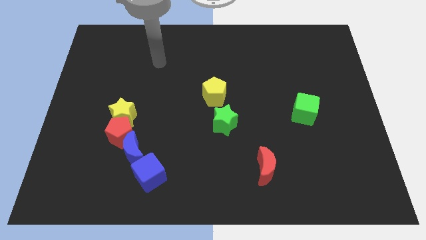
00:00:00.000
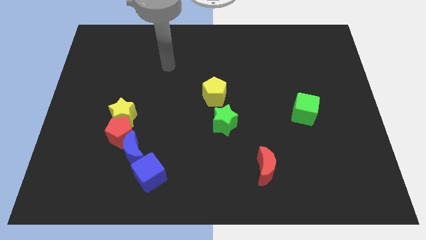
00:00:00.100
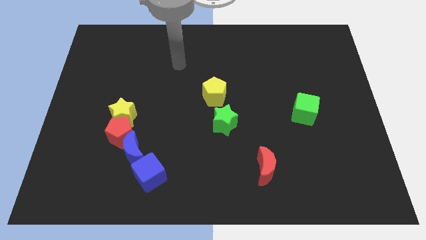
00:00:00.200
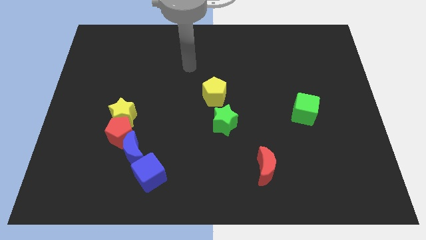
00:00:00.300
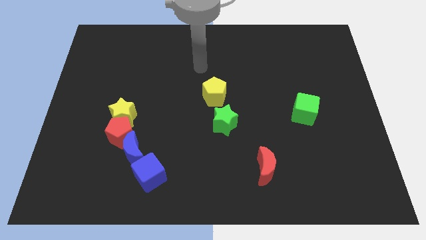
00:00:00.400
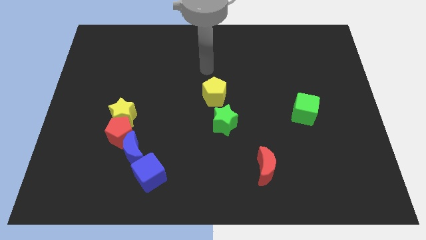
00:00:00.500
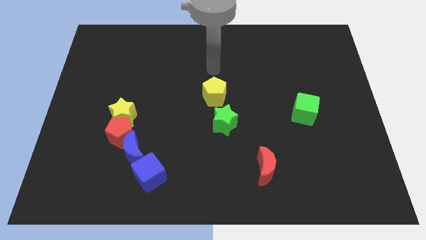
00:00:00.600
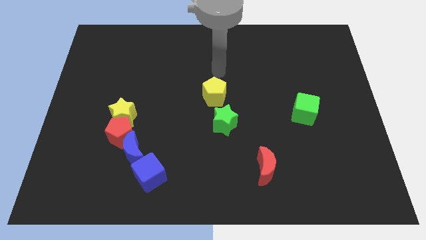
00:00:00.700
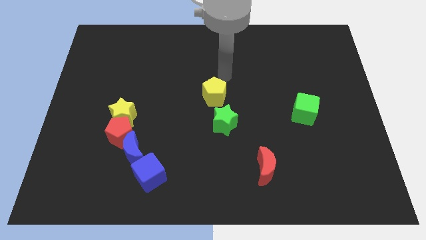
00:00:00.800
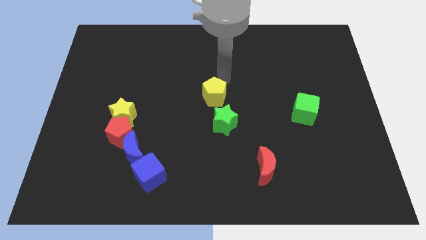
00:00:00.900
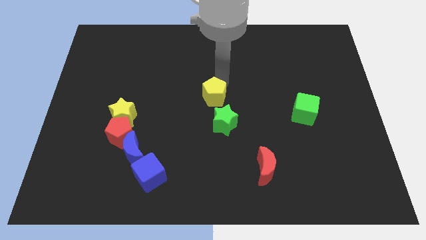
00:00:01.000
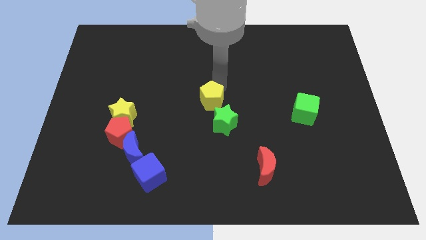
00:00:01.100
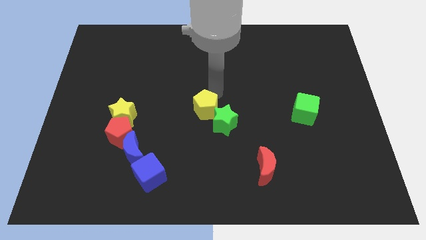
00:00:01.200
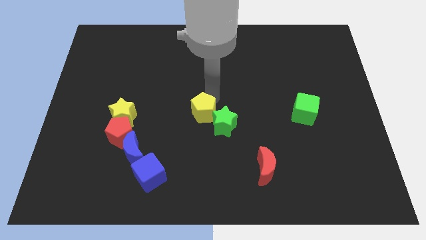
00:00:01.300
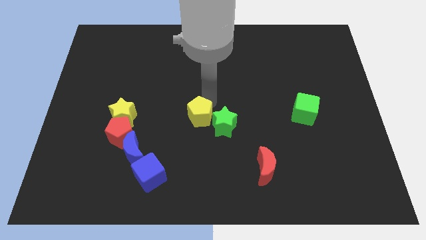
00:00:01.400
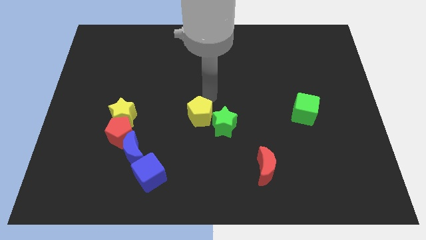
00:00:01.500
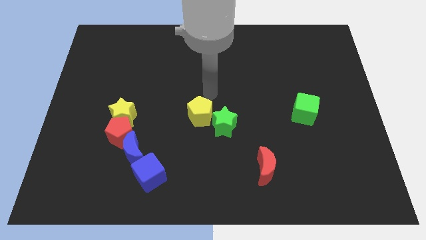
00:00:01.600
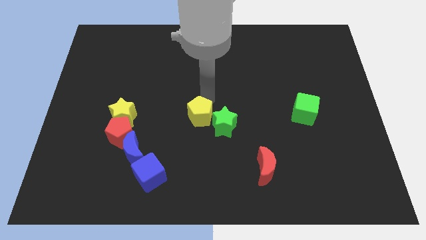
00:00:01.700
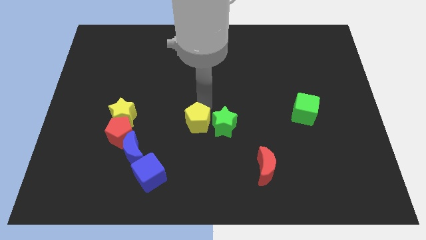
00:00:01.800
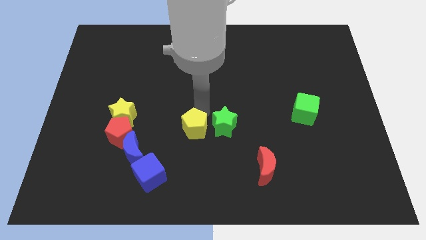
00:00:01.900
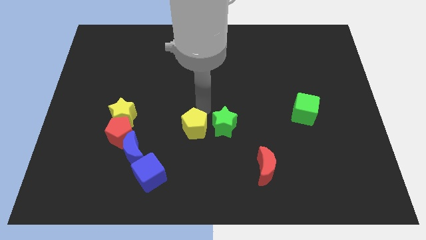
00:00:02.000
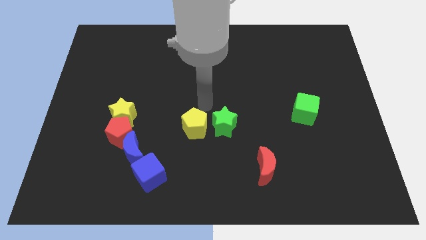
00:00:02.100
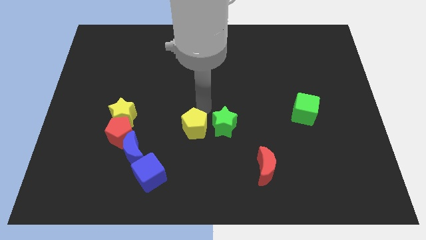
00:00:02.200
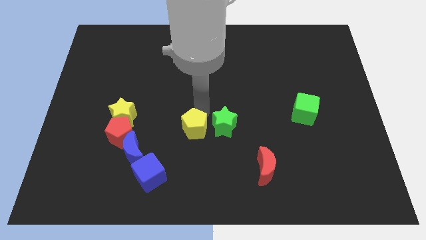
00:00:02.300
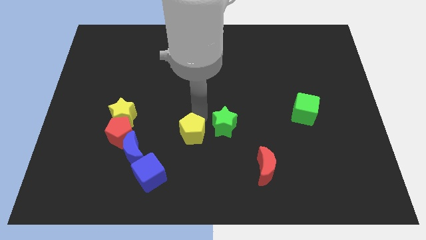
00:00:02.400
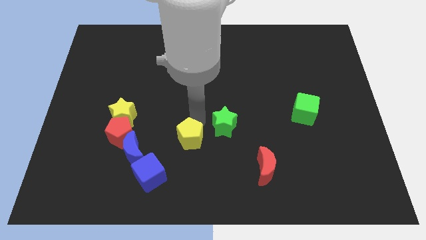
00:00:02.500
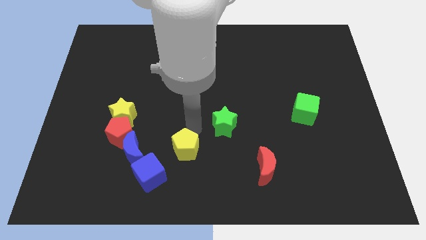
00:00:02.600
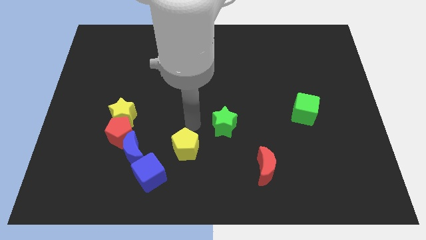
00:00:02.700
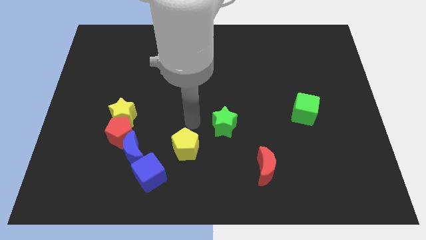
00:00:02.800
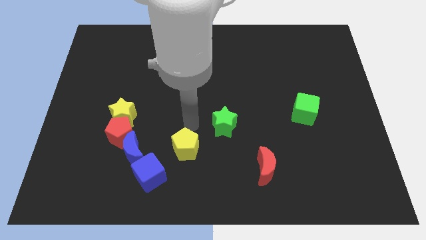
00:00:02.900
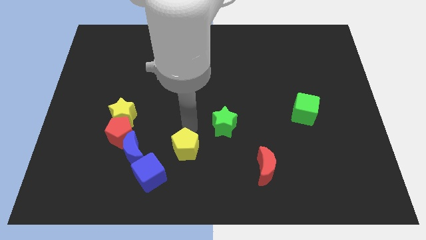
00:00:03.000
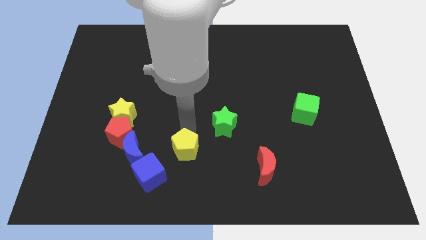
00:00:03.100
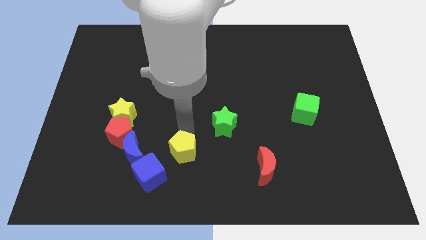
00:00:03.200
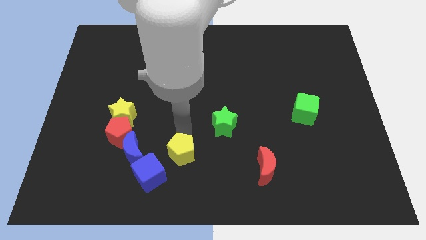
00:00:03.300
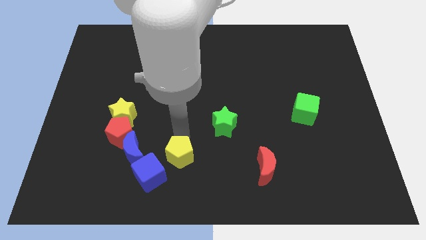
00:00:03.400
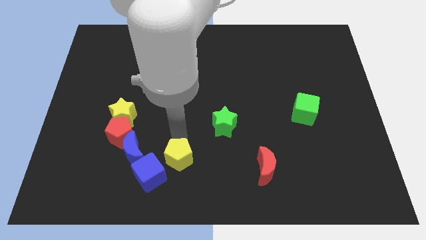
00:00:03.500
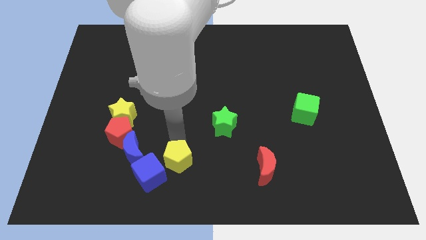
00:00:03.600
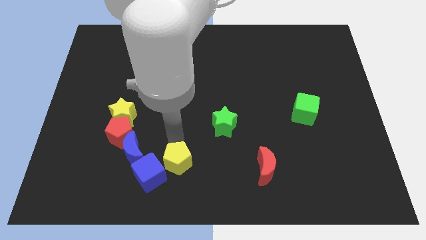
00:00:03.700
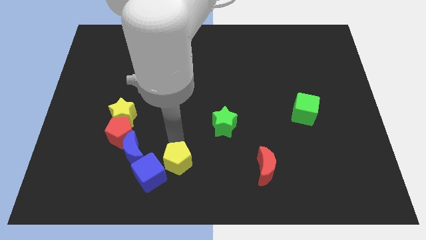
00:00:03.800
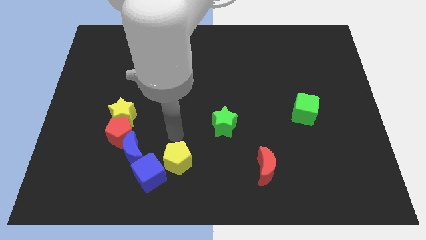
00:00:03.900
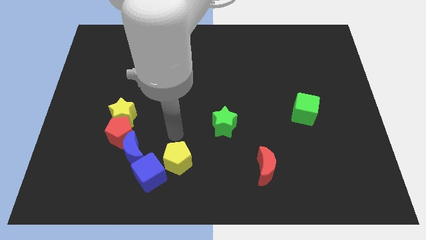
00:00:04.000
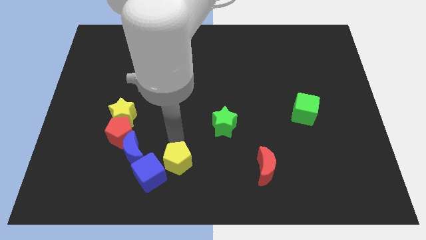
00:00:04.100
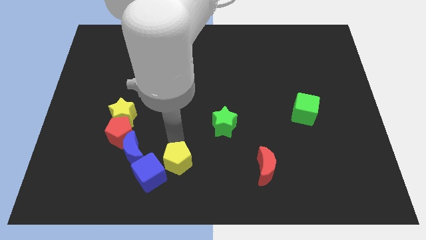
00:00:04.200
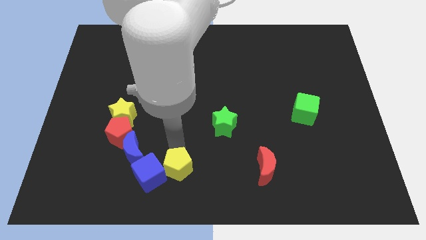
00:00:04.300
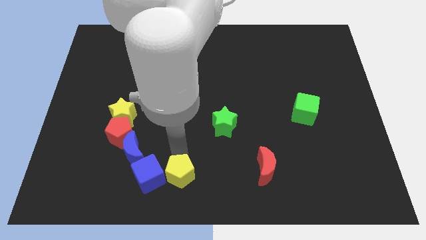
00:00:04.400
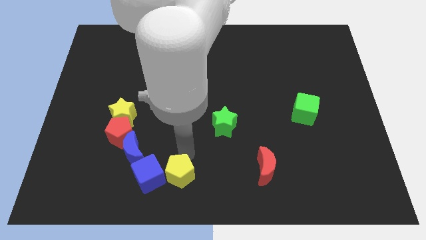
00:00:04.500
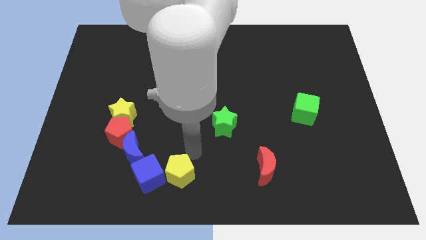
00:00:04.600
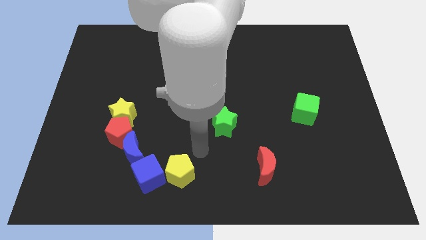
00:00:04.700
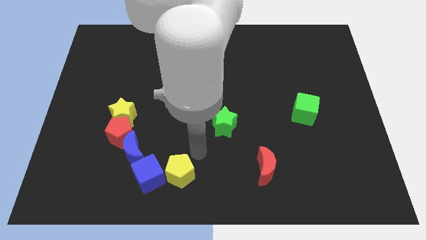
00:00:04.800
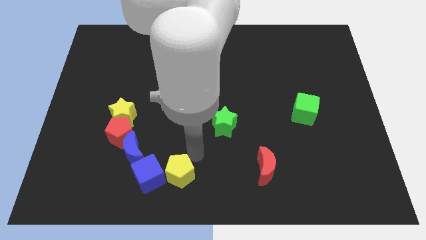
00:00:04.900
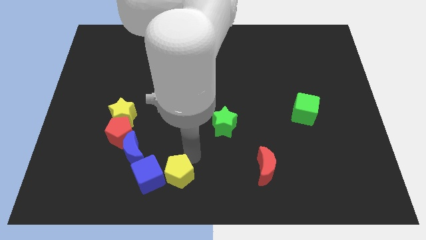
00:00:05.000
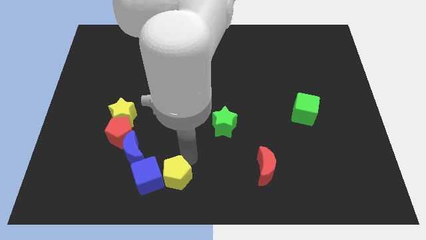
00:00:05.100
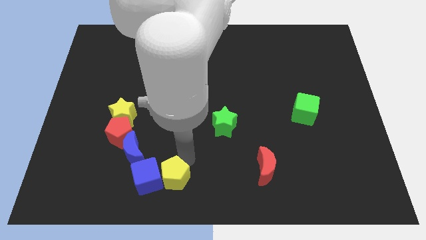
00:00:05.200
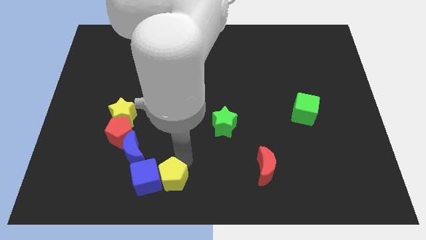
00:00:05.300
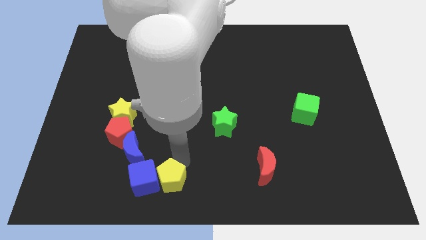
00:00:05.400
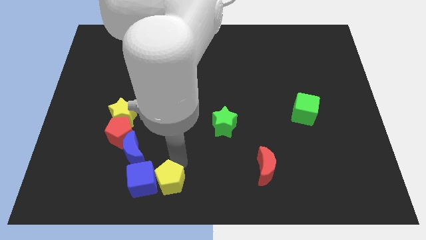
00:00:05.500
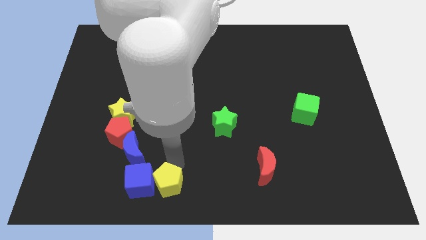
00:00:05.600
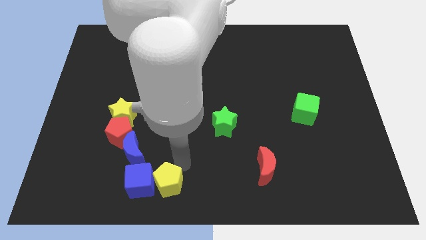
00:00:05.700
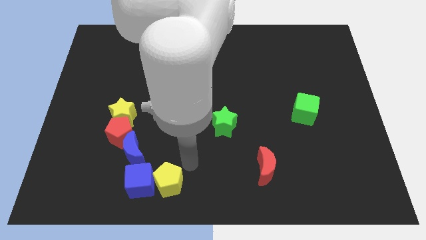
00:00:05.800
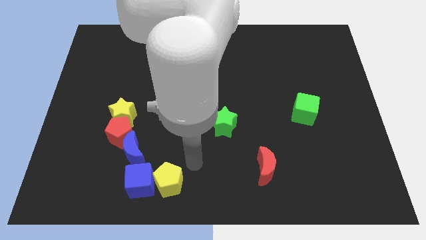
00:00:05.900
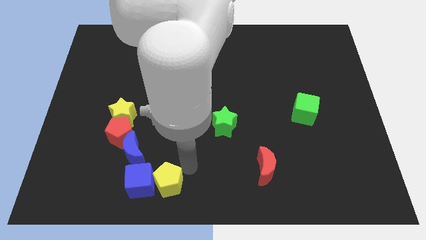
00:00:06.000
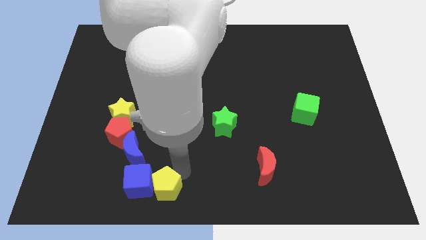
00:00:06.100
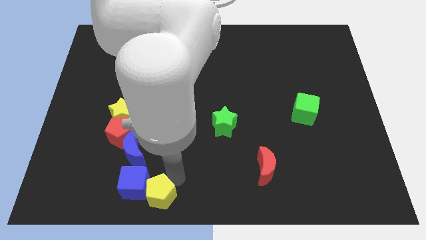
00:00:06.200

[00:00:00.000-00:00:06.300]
push the yellow pentagon down and left diagonally

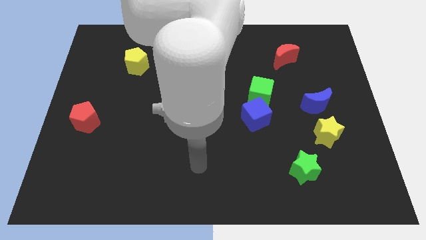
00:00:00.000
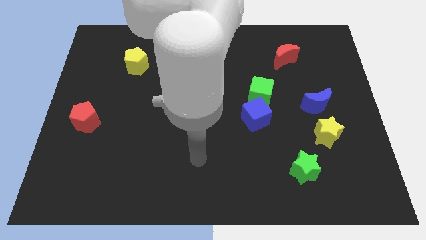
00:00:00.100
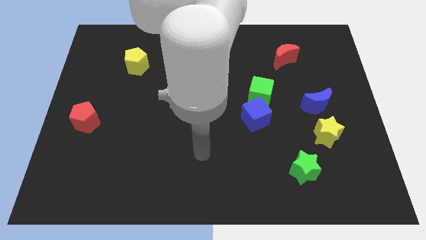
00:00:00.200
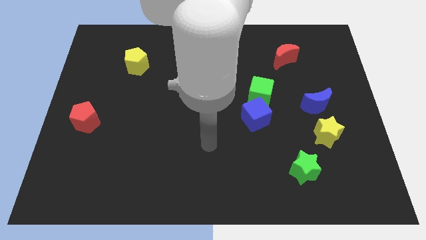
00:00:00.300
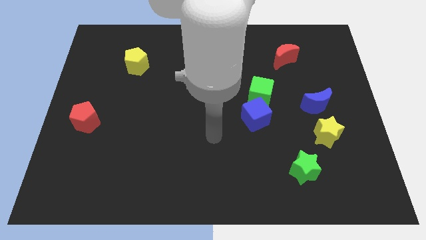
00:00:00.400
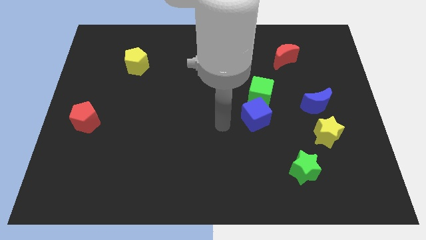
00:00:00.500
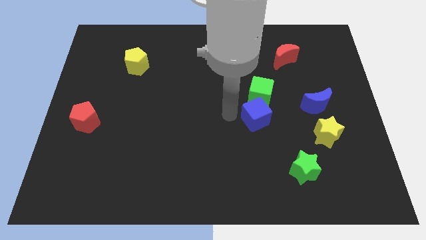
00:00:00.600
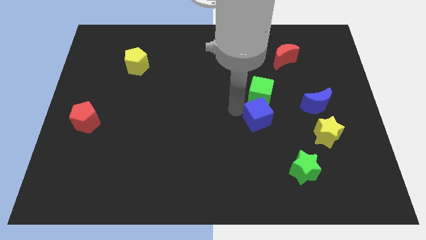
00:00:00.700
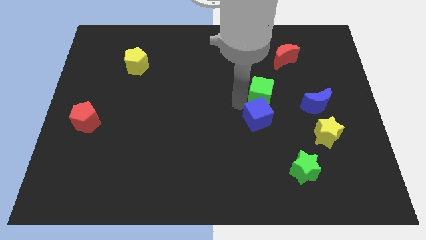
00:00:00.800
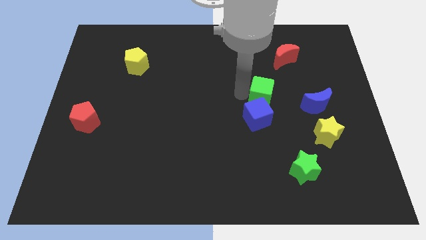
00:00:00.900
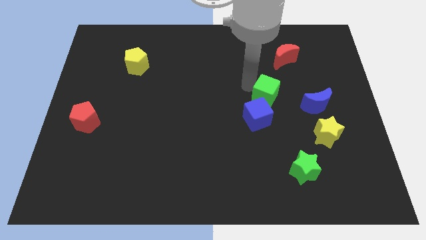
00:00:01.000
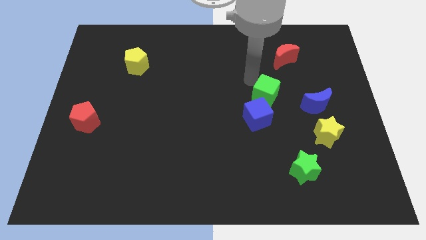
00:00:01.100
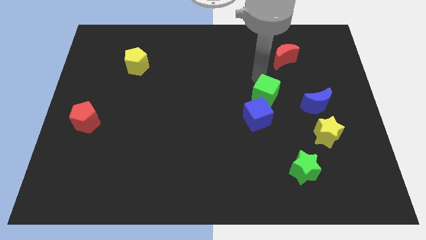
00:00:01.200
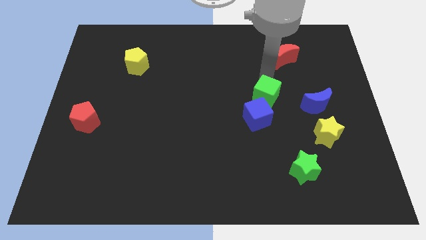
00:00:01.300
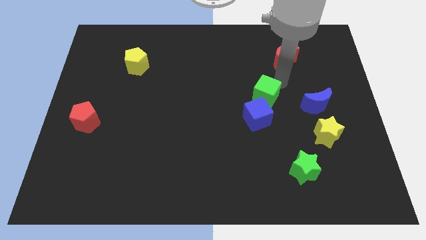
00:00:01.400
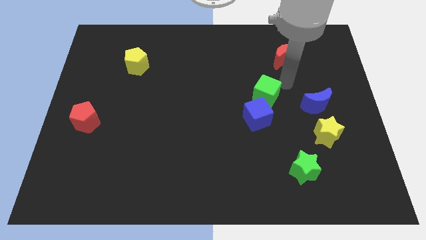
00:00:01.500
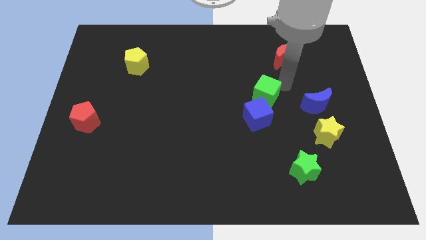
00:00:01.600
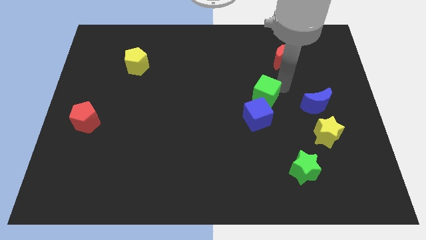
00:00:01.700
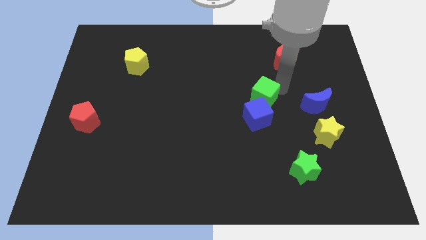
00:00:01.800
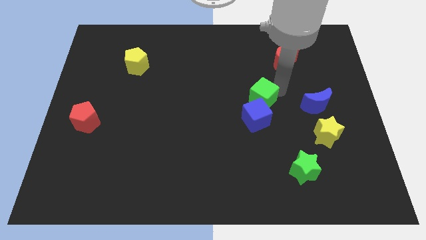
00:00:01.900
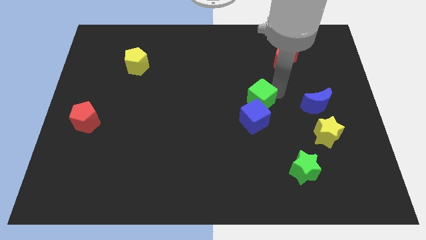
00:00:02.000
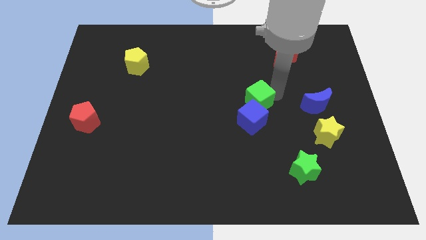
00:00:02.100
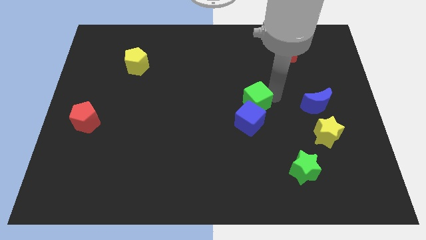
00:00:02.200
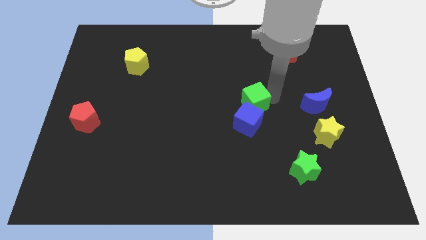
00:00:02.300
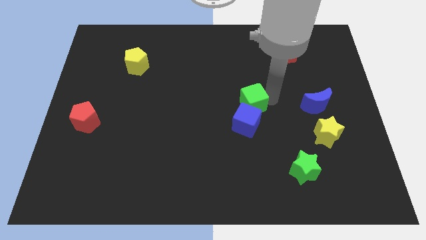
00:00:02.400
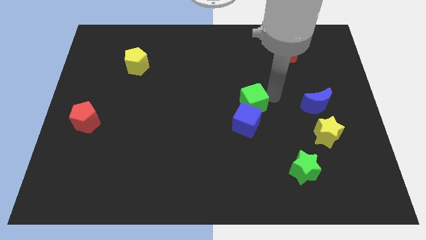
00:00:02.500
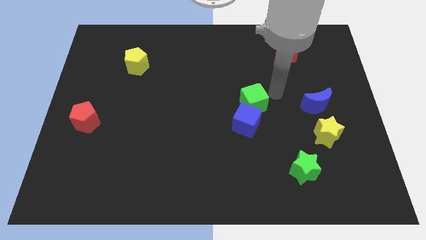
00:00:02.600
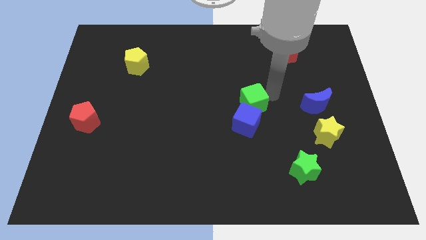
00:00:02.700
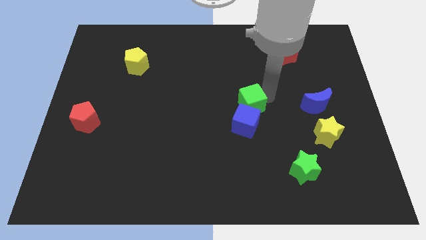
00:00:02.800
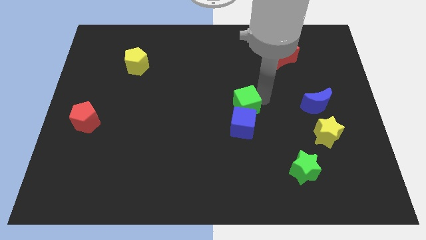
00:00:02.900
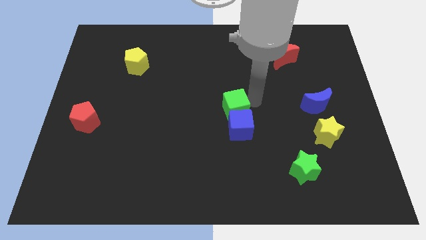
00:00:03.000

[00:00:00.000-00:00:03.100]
move the green cube diagonally downwards and left a little bit
